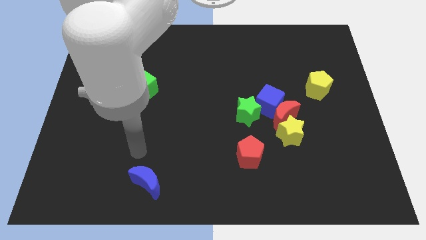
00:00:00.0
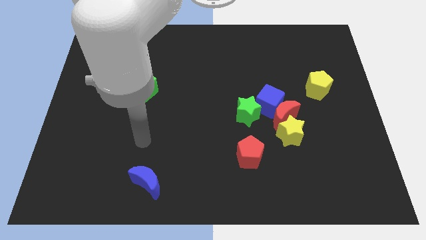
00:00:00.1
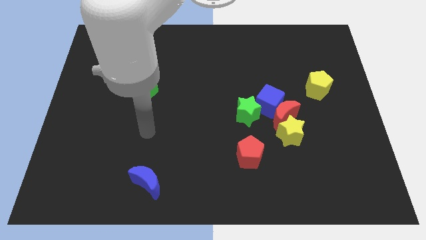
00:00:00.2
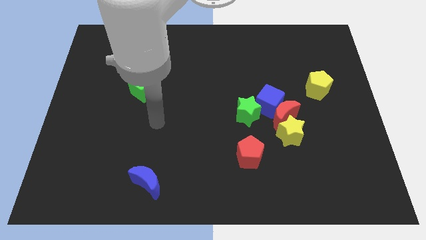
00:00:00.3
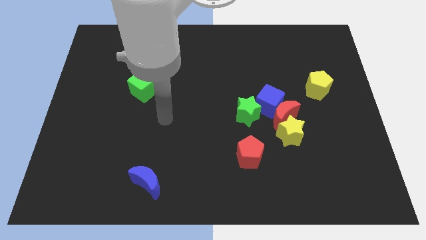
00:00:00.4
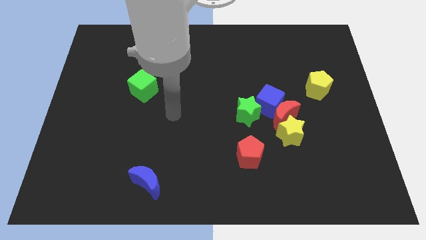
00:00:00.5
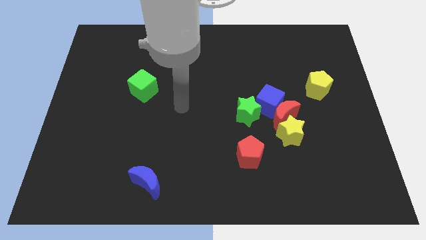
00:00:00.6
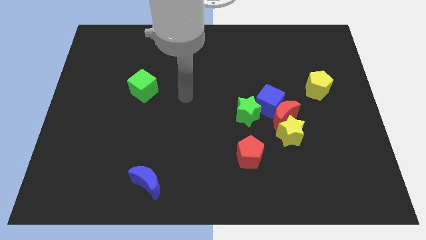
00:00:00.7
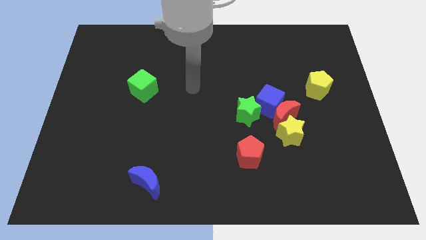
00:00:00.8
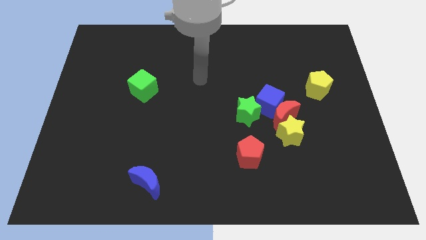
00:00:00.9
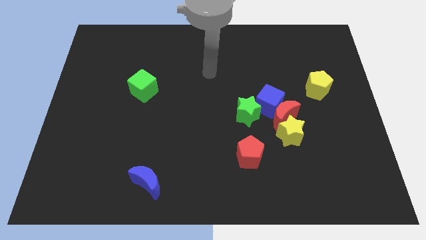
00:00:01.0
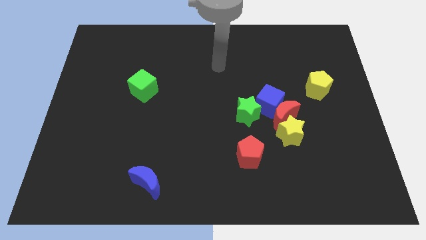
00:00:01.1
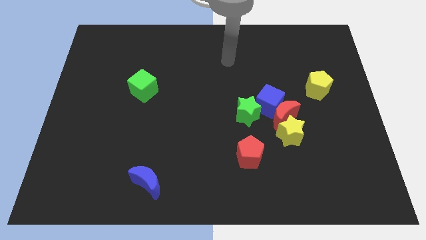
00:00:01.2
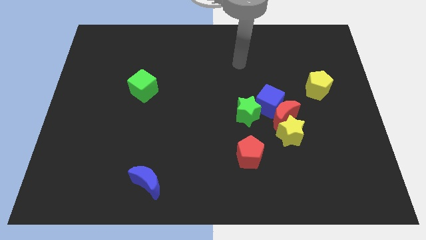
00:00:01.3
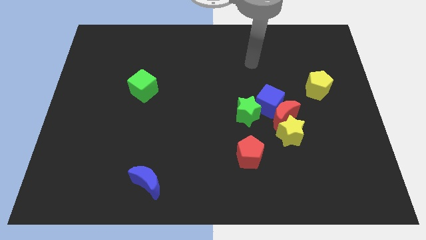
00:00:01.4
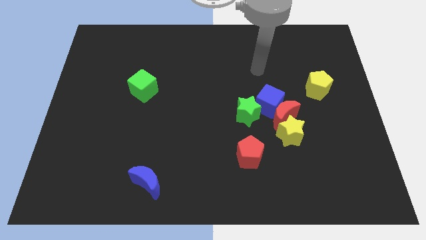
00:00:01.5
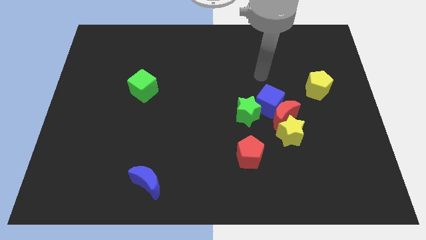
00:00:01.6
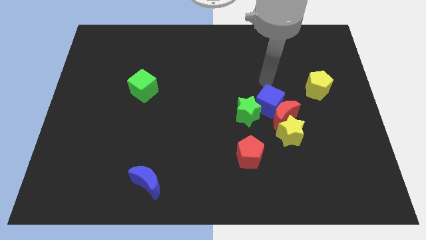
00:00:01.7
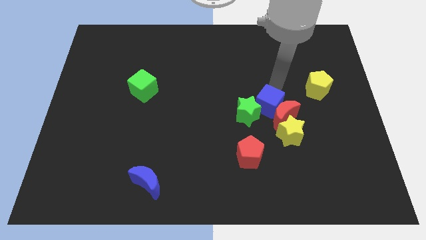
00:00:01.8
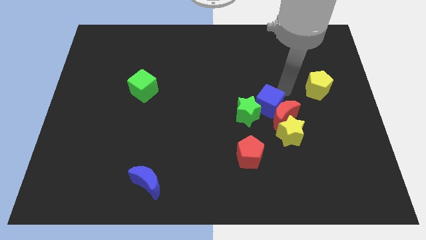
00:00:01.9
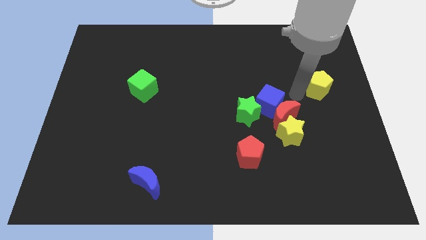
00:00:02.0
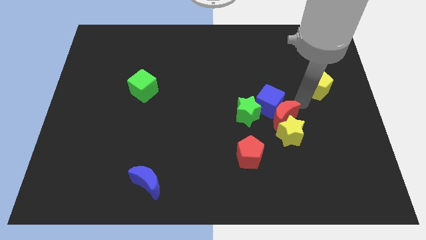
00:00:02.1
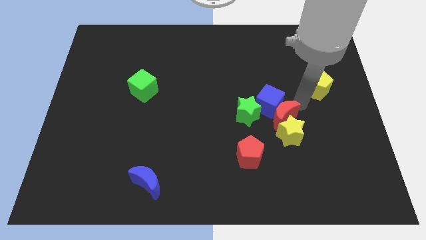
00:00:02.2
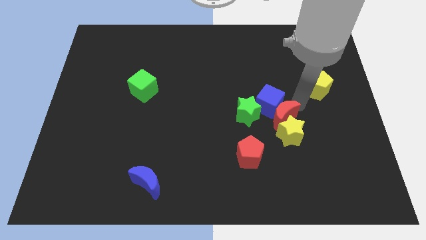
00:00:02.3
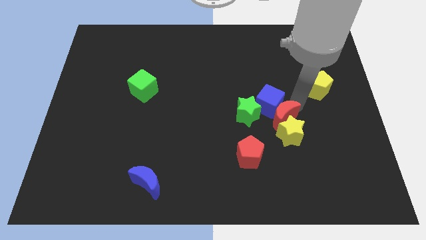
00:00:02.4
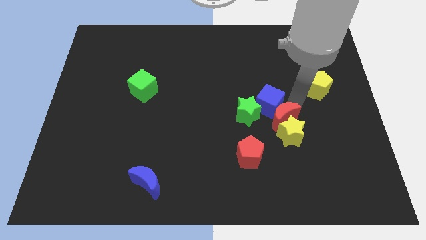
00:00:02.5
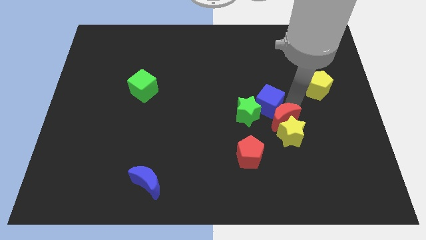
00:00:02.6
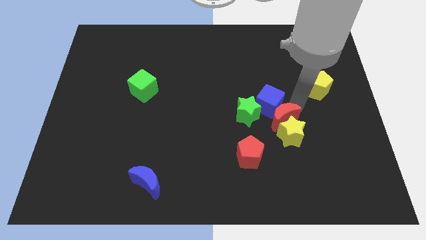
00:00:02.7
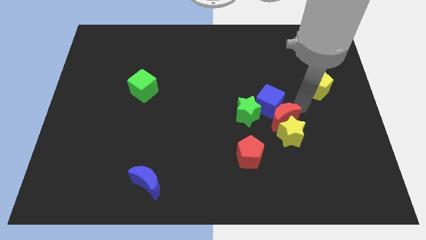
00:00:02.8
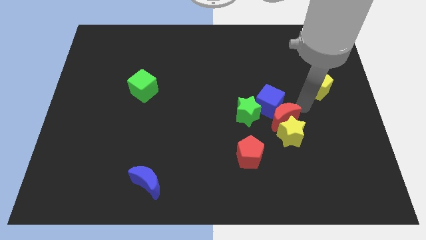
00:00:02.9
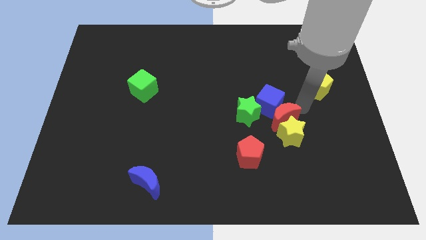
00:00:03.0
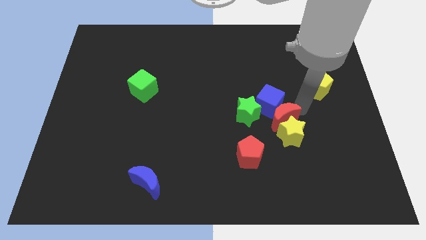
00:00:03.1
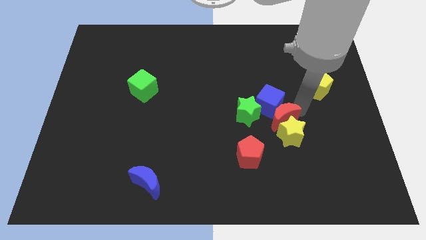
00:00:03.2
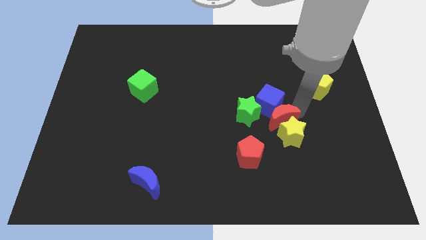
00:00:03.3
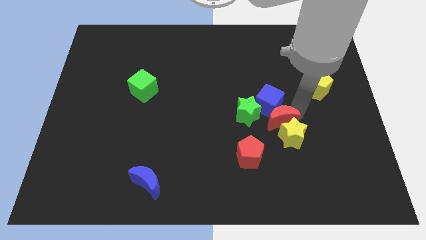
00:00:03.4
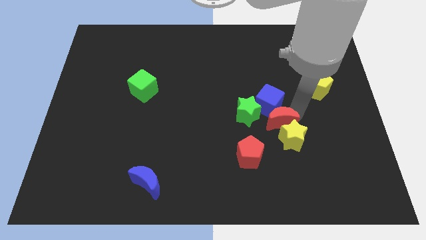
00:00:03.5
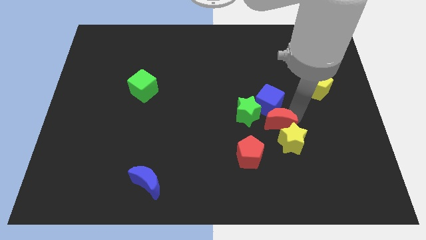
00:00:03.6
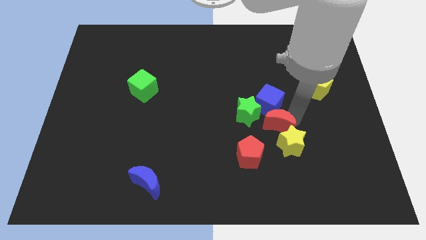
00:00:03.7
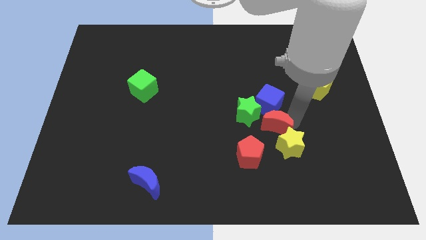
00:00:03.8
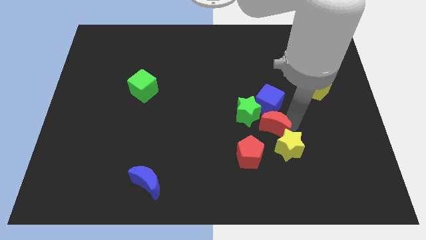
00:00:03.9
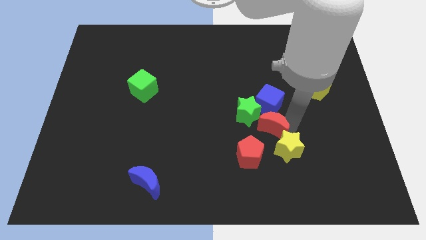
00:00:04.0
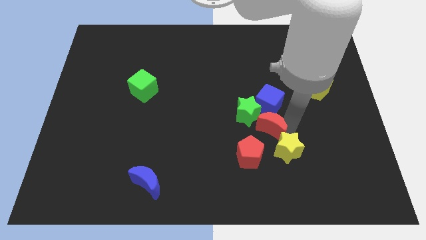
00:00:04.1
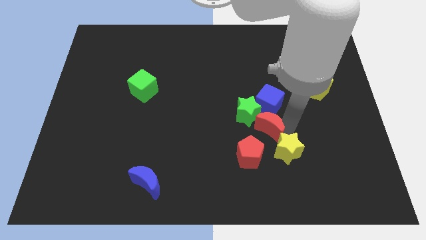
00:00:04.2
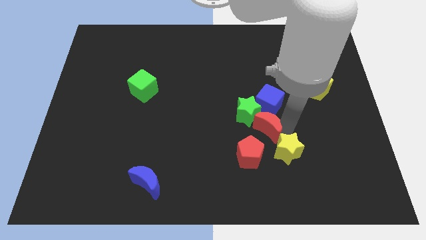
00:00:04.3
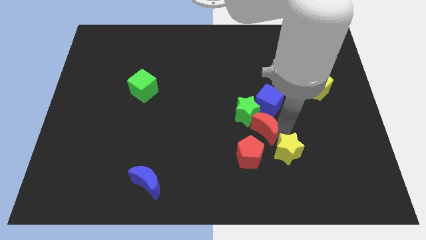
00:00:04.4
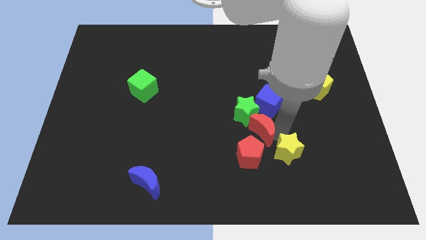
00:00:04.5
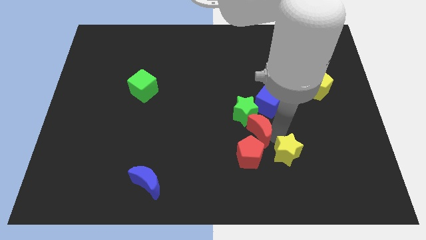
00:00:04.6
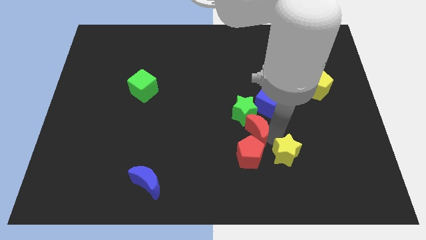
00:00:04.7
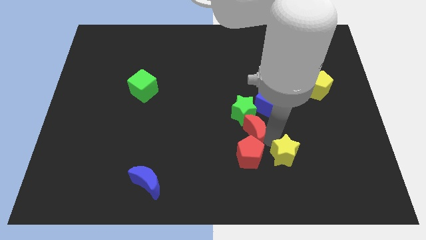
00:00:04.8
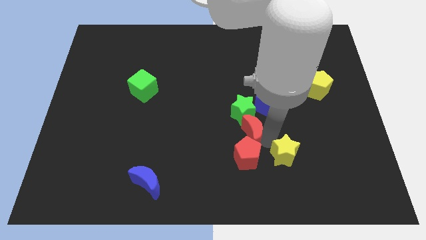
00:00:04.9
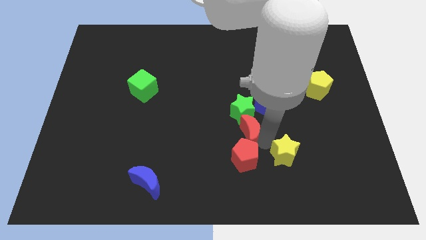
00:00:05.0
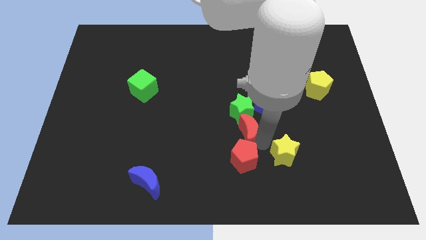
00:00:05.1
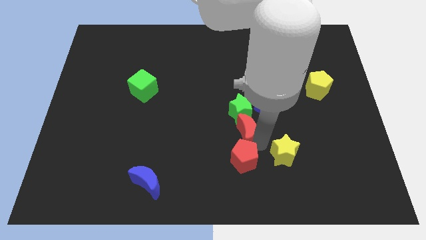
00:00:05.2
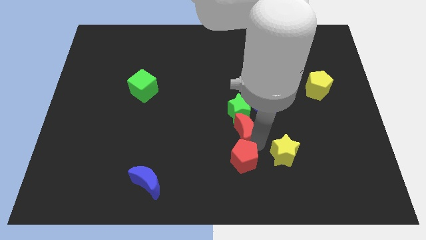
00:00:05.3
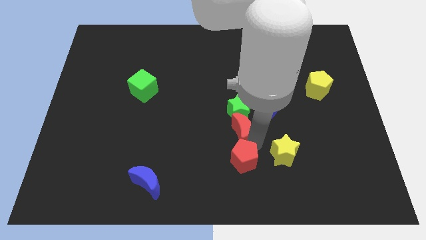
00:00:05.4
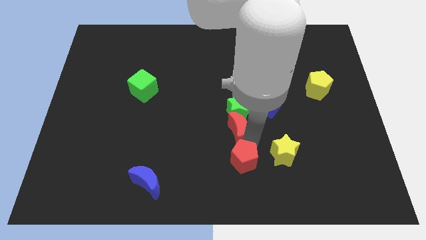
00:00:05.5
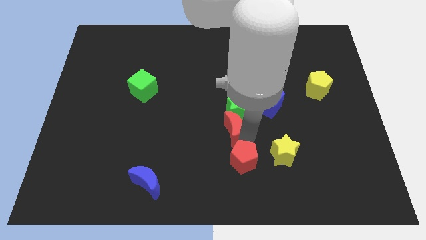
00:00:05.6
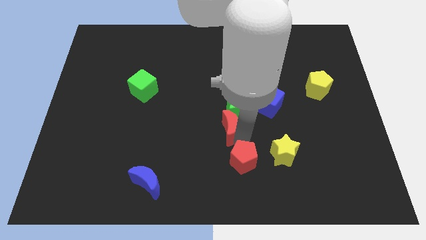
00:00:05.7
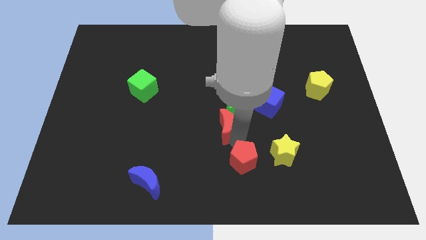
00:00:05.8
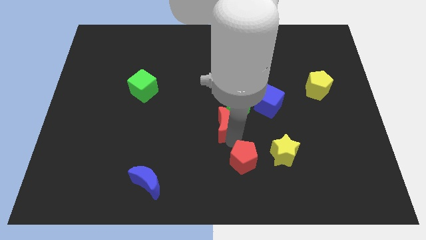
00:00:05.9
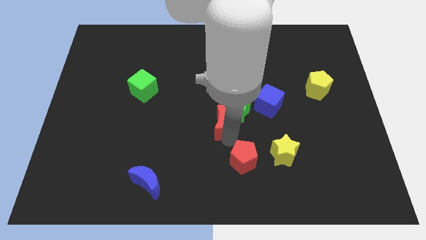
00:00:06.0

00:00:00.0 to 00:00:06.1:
move the red moon just left of the green star

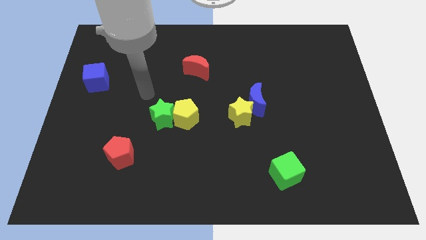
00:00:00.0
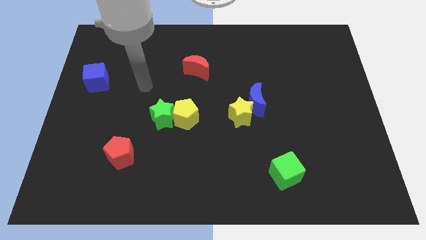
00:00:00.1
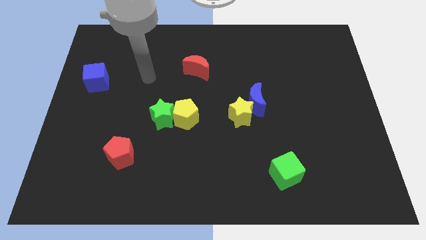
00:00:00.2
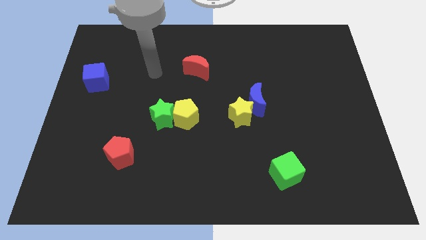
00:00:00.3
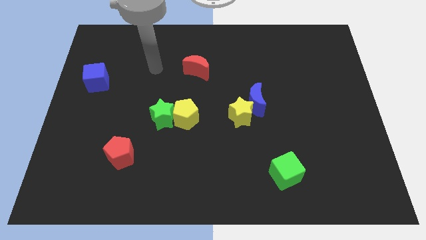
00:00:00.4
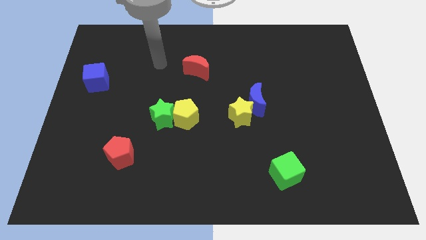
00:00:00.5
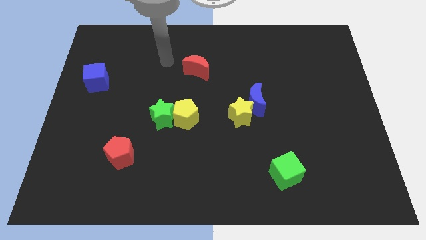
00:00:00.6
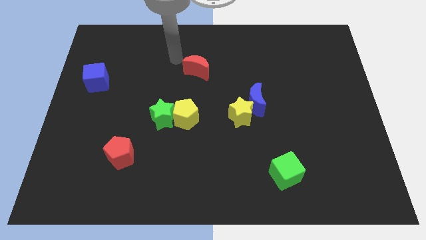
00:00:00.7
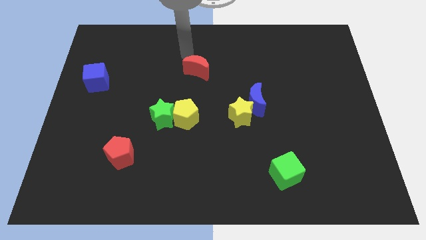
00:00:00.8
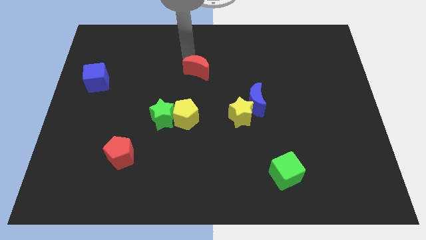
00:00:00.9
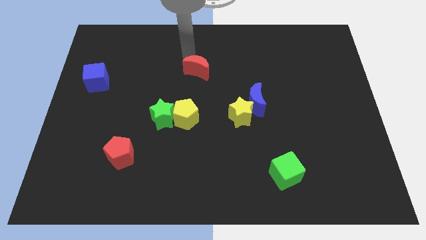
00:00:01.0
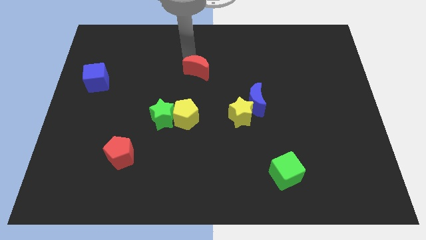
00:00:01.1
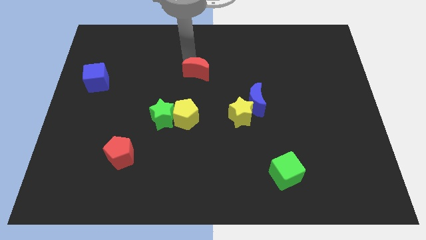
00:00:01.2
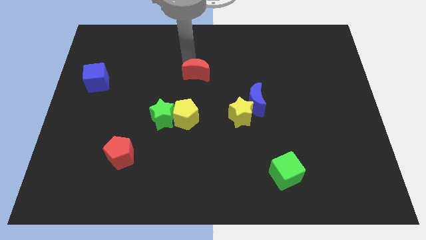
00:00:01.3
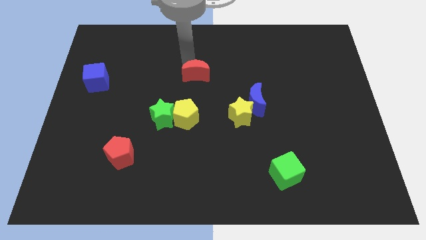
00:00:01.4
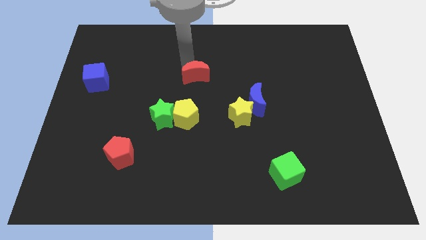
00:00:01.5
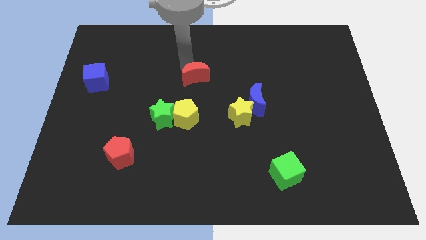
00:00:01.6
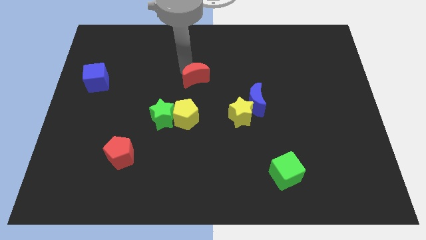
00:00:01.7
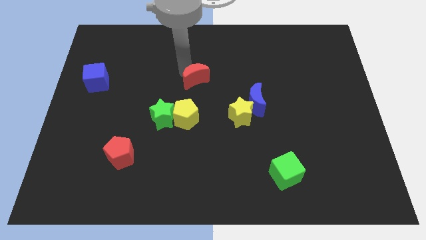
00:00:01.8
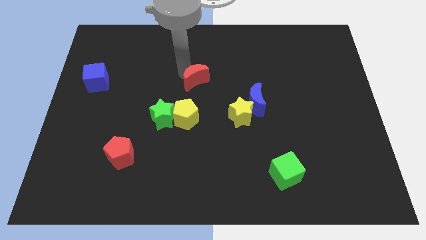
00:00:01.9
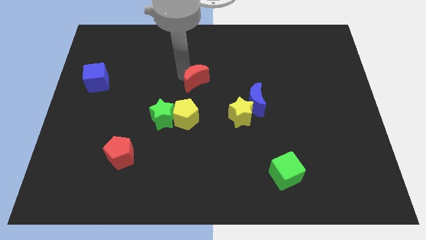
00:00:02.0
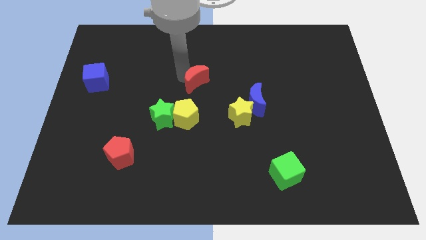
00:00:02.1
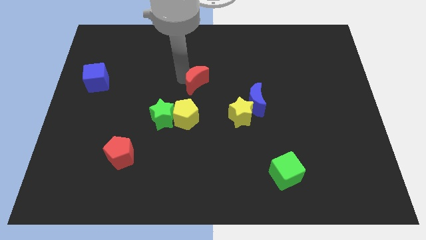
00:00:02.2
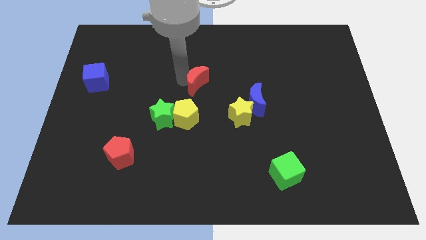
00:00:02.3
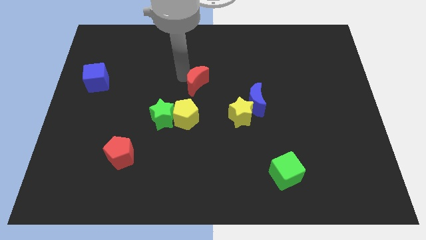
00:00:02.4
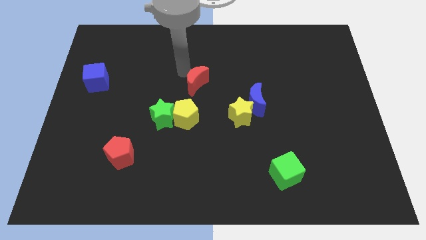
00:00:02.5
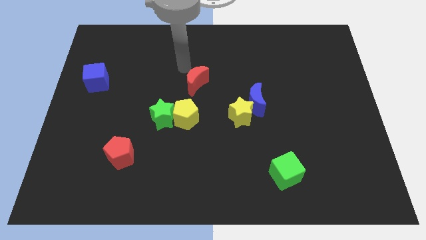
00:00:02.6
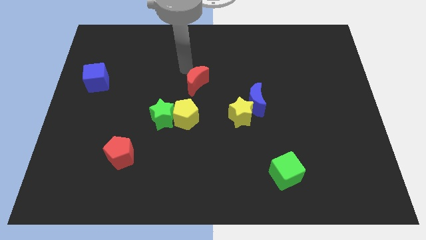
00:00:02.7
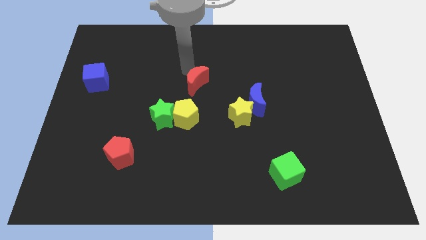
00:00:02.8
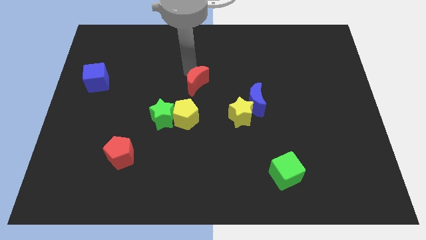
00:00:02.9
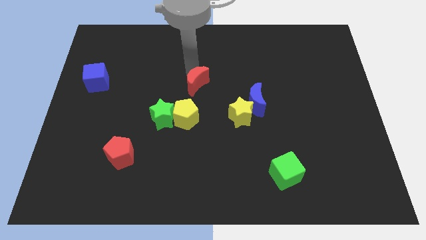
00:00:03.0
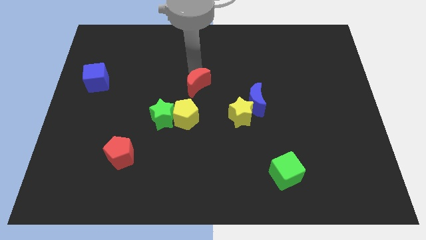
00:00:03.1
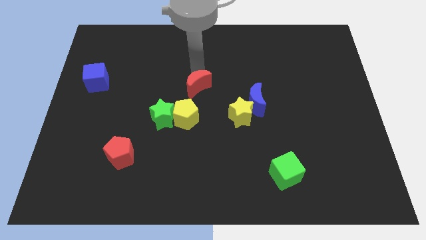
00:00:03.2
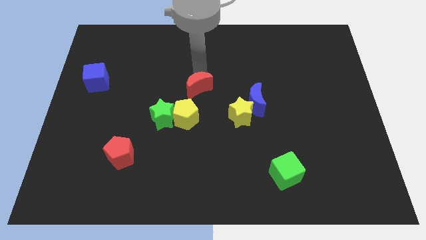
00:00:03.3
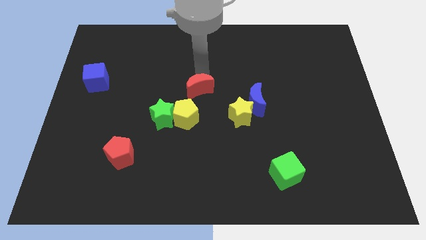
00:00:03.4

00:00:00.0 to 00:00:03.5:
slide the red moon left of the blue moon
